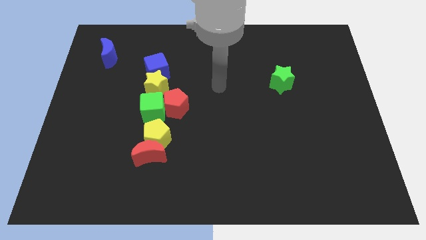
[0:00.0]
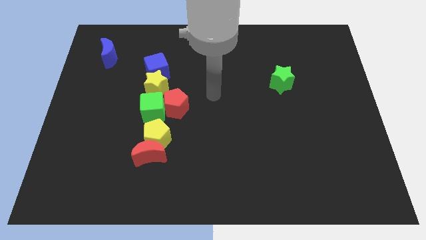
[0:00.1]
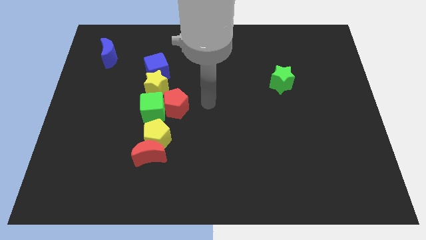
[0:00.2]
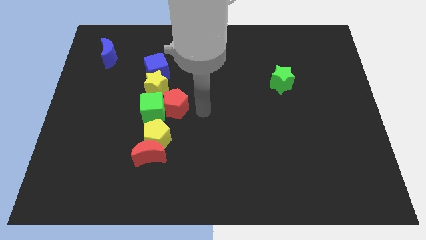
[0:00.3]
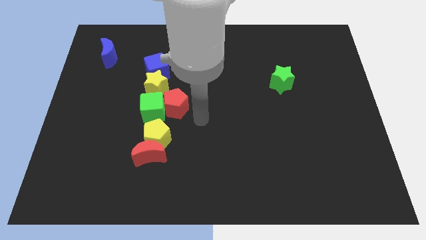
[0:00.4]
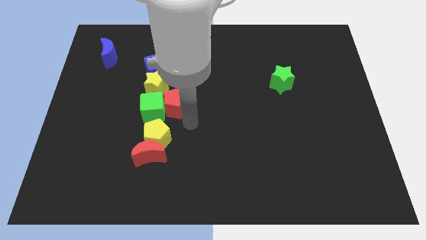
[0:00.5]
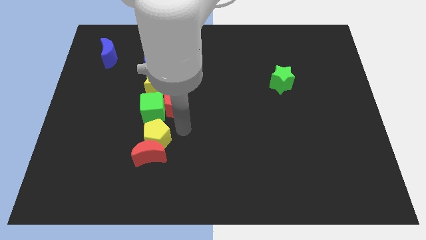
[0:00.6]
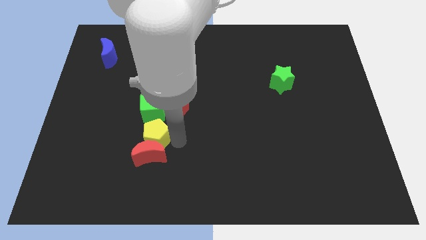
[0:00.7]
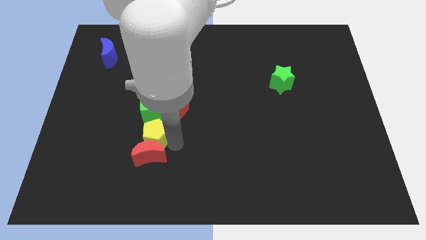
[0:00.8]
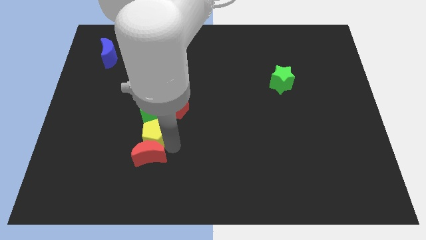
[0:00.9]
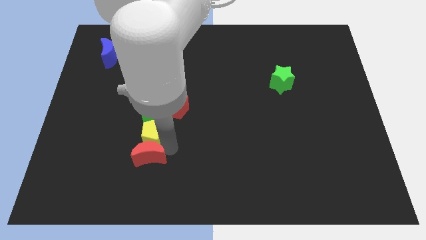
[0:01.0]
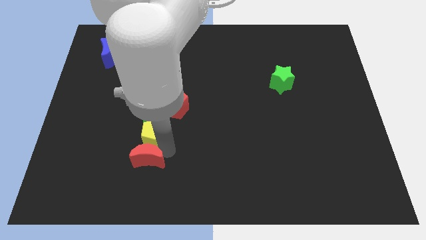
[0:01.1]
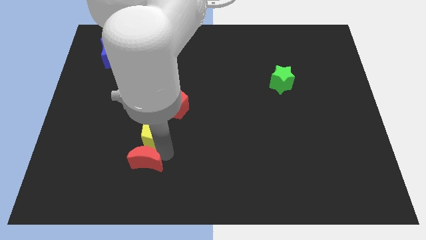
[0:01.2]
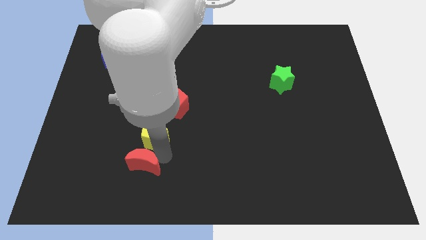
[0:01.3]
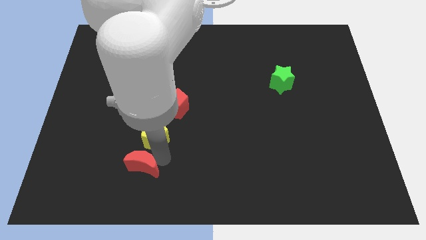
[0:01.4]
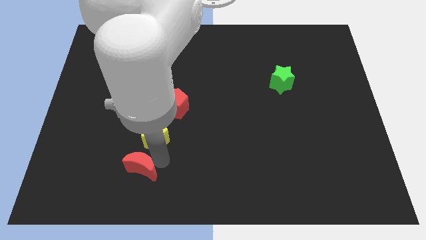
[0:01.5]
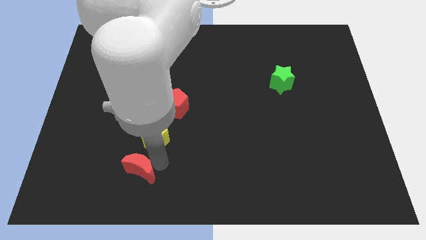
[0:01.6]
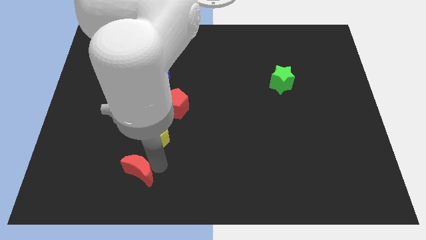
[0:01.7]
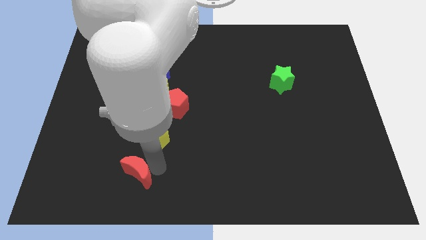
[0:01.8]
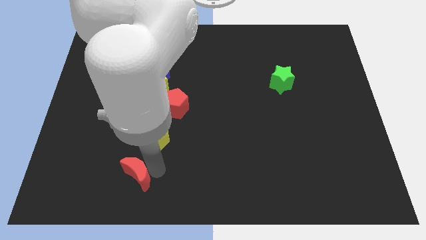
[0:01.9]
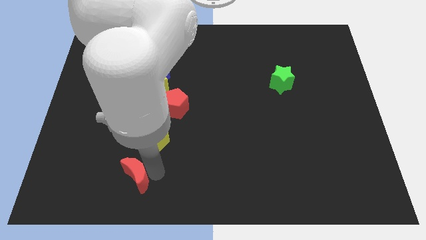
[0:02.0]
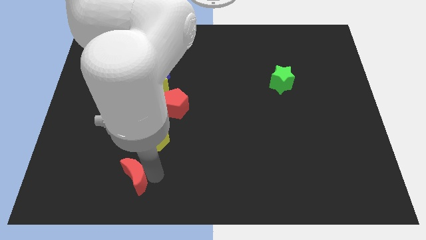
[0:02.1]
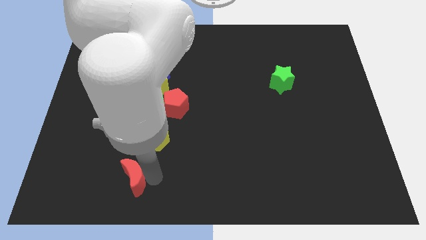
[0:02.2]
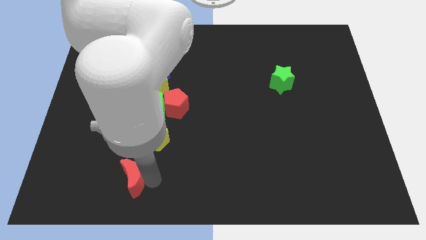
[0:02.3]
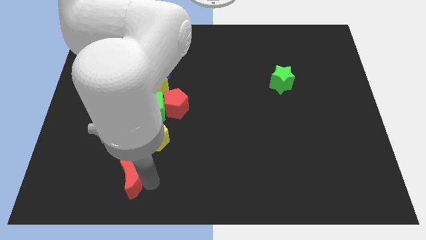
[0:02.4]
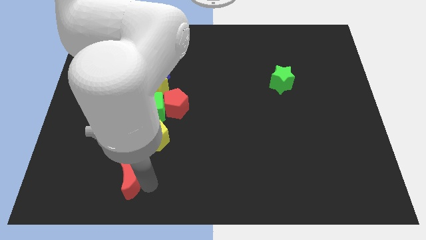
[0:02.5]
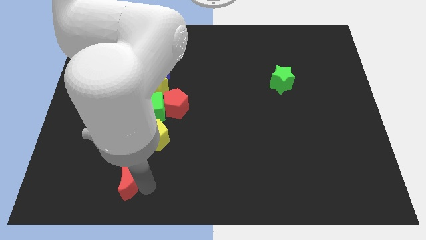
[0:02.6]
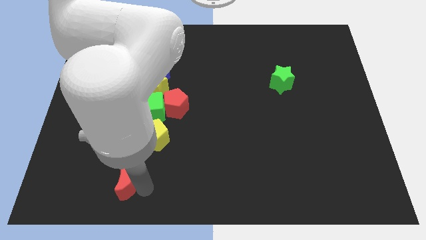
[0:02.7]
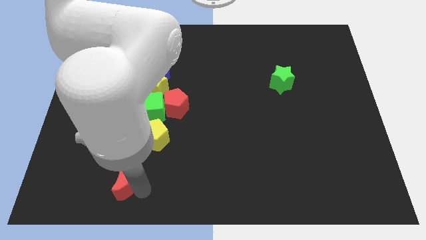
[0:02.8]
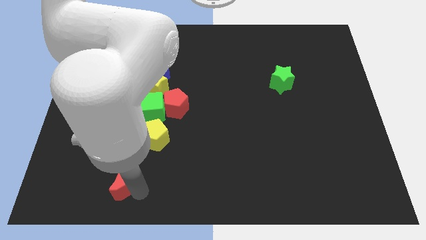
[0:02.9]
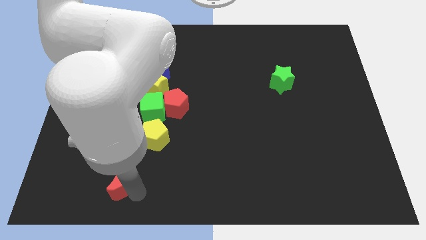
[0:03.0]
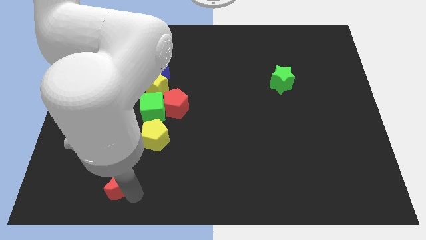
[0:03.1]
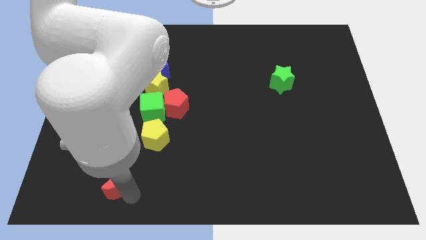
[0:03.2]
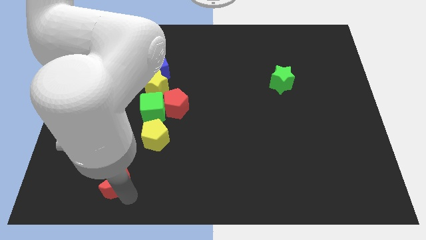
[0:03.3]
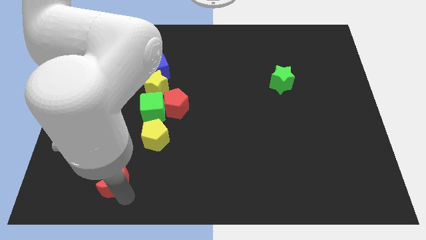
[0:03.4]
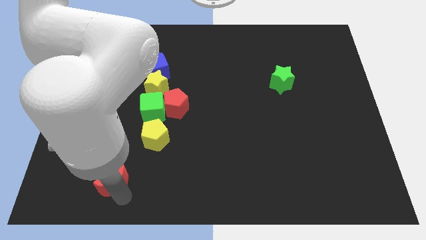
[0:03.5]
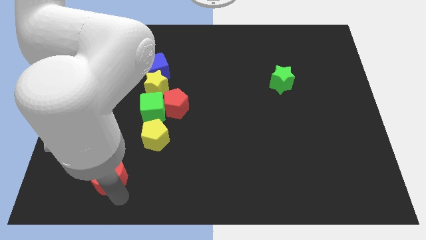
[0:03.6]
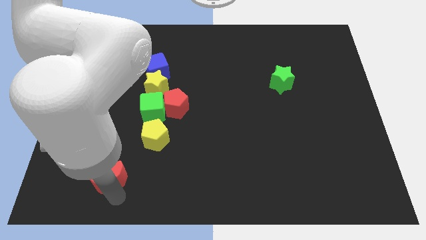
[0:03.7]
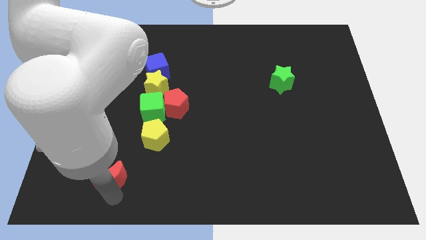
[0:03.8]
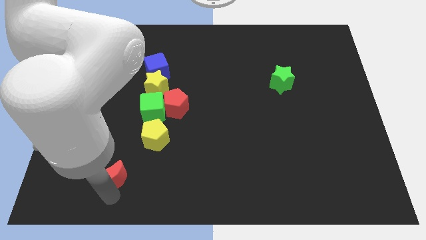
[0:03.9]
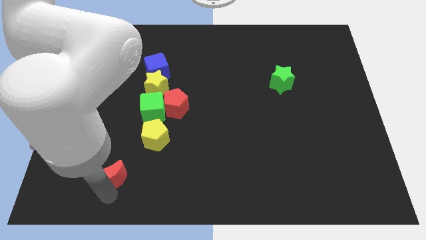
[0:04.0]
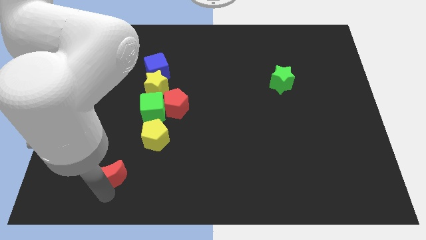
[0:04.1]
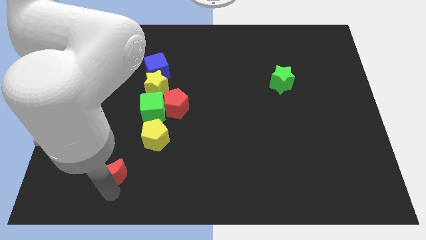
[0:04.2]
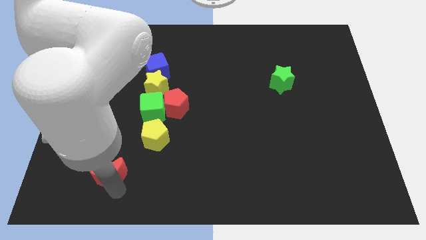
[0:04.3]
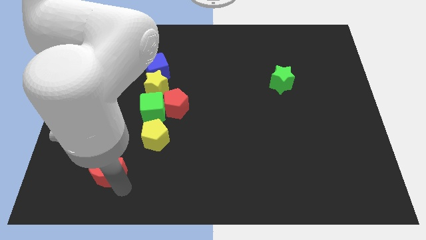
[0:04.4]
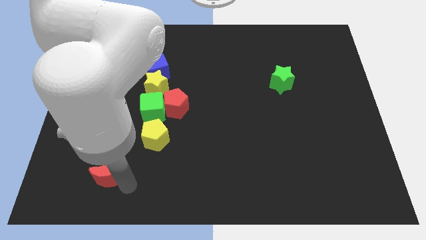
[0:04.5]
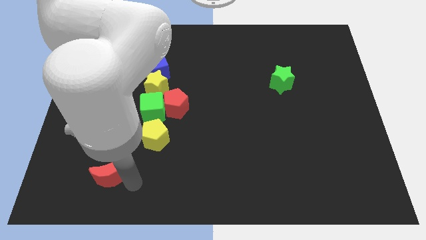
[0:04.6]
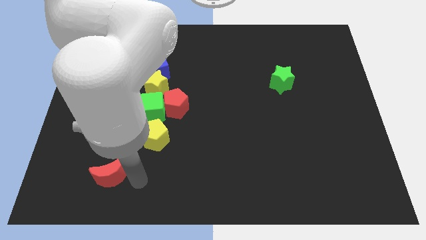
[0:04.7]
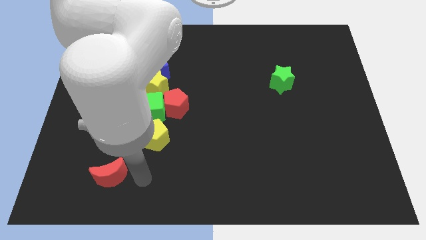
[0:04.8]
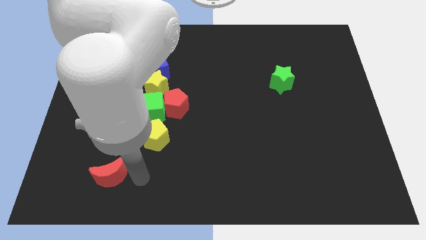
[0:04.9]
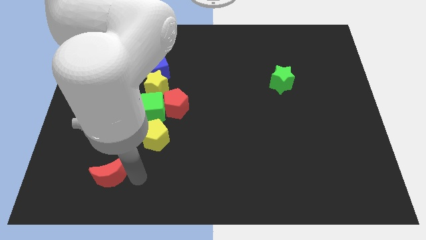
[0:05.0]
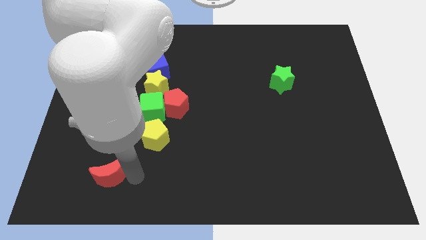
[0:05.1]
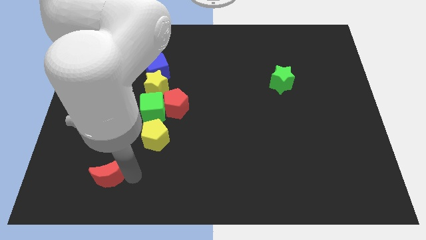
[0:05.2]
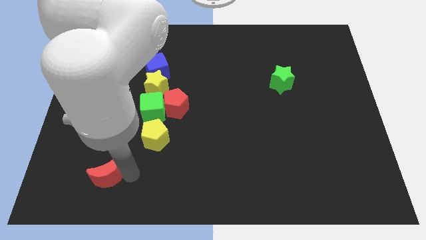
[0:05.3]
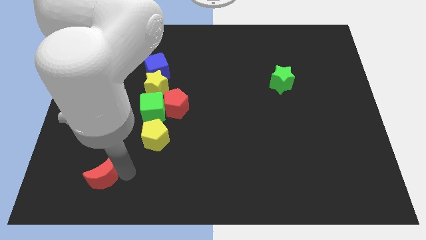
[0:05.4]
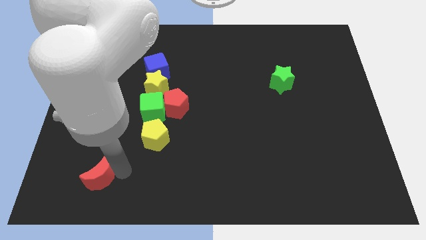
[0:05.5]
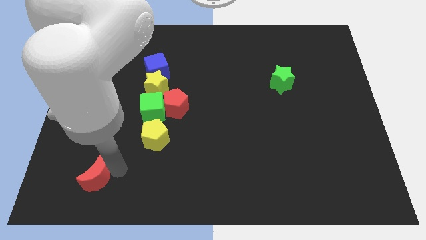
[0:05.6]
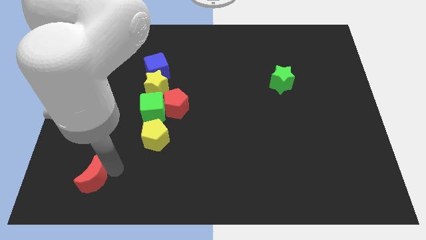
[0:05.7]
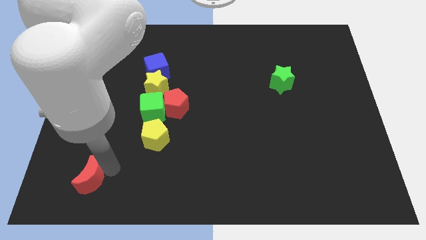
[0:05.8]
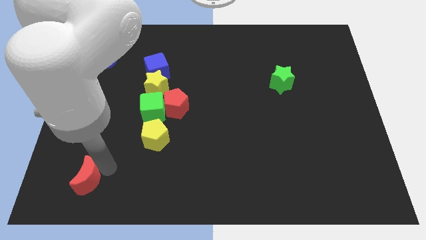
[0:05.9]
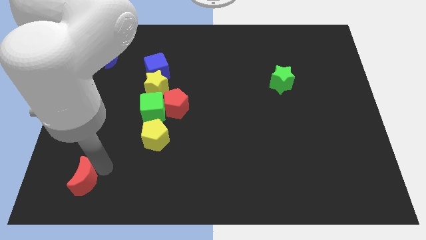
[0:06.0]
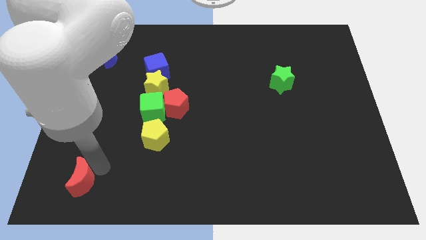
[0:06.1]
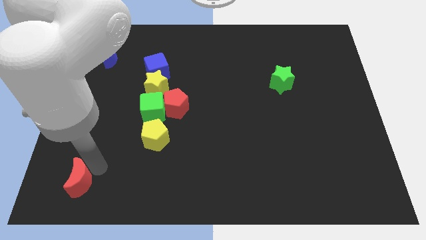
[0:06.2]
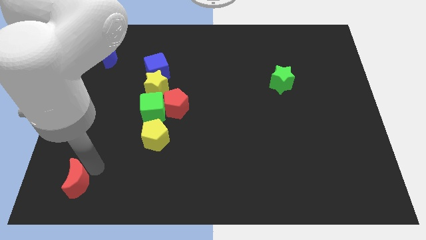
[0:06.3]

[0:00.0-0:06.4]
move the red moon to the bottom left corner

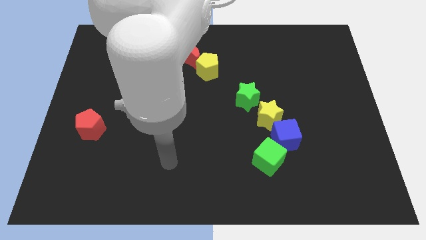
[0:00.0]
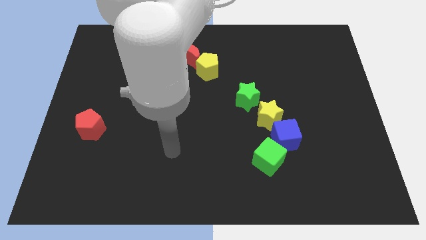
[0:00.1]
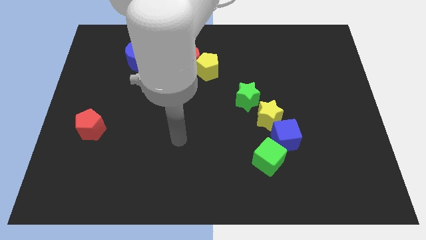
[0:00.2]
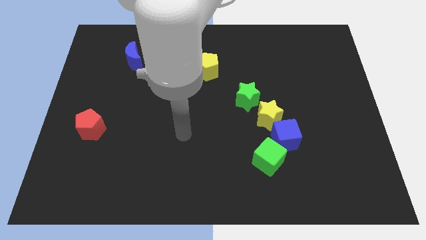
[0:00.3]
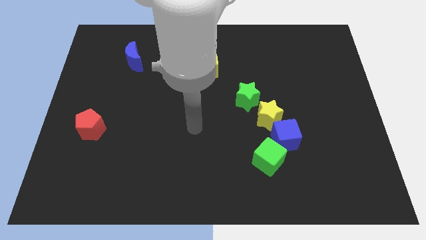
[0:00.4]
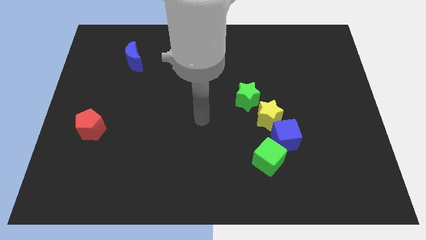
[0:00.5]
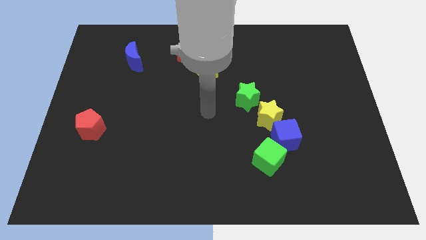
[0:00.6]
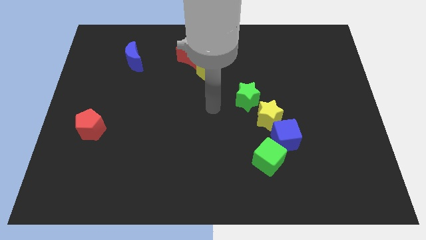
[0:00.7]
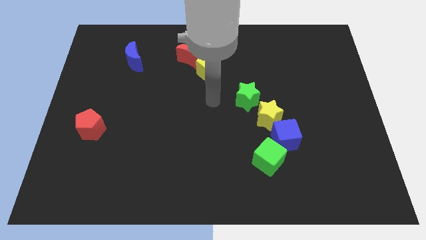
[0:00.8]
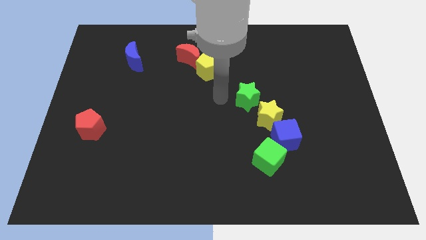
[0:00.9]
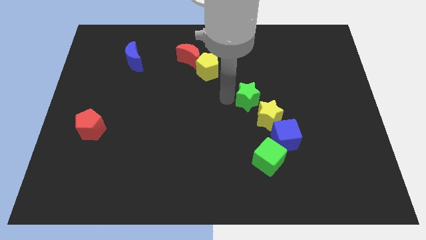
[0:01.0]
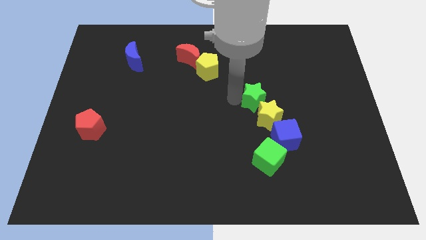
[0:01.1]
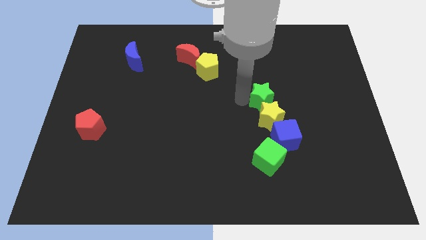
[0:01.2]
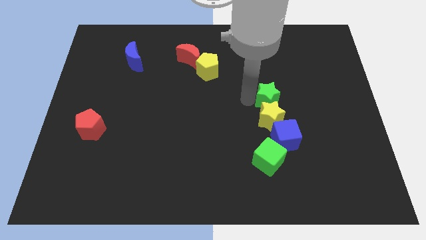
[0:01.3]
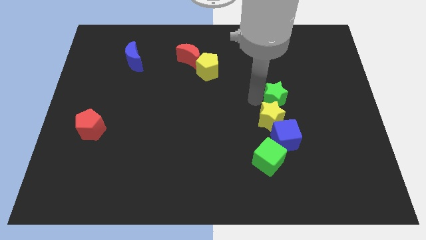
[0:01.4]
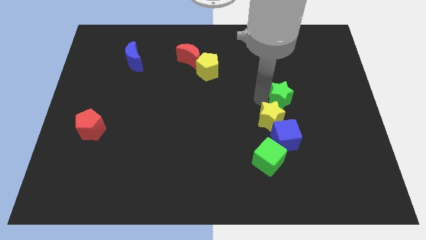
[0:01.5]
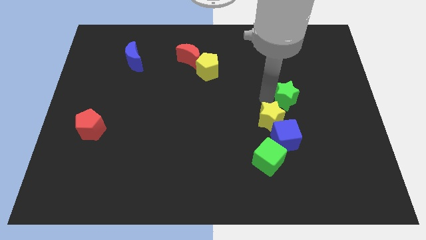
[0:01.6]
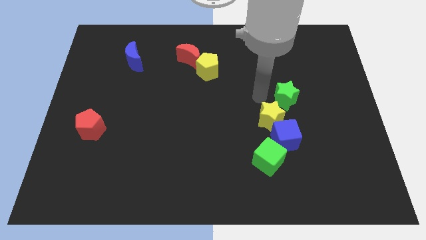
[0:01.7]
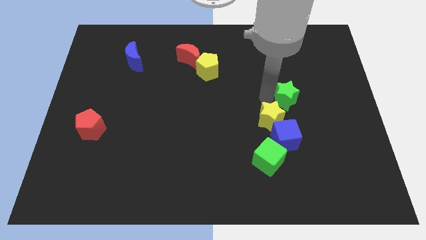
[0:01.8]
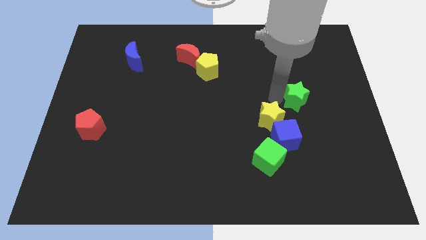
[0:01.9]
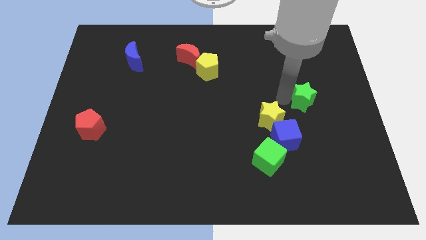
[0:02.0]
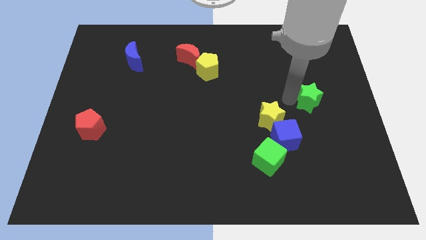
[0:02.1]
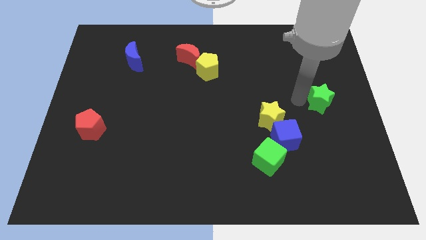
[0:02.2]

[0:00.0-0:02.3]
push the green star to the right side
